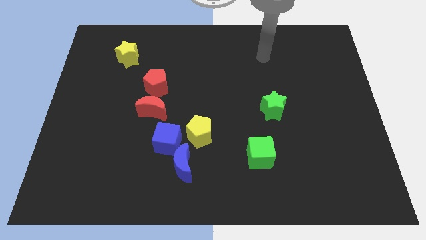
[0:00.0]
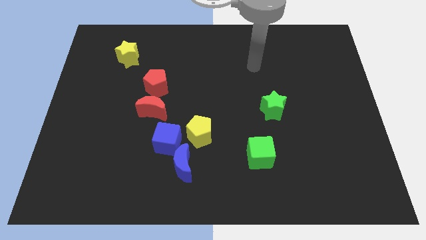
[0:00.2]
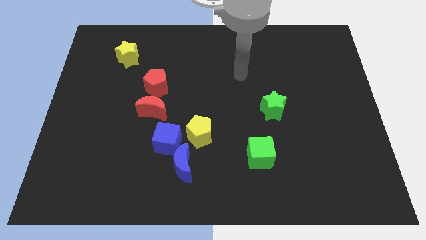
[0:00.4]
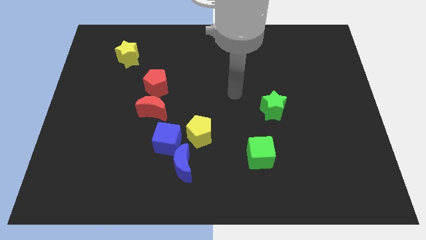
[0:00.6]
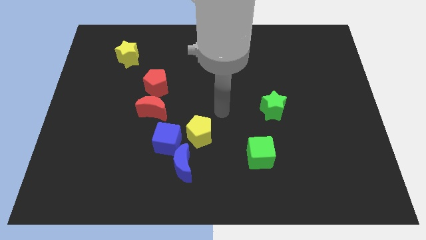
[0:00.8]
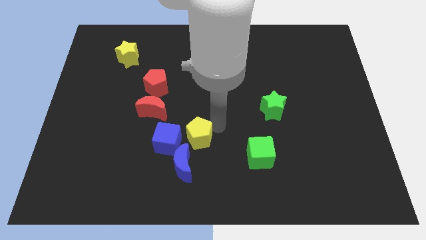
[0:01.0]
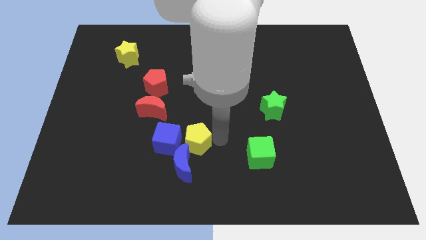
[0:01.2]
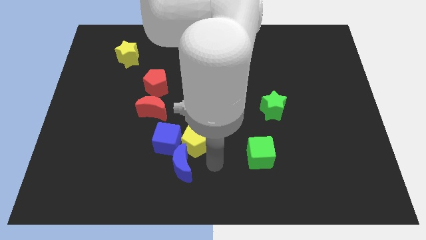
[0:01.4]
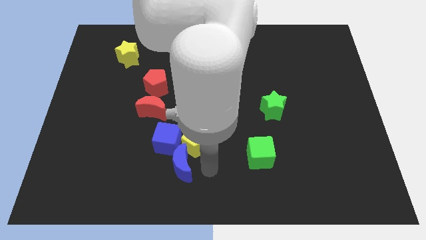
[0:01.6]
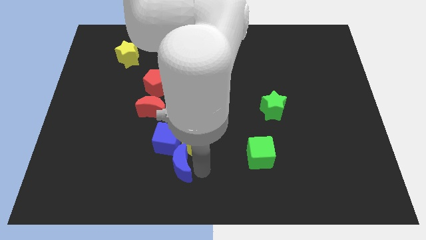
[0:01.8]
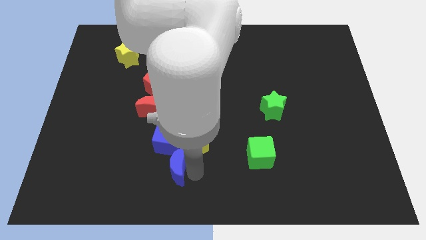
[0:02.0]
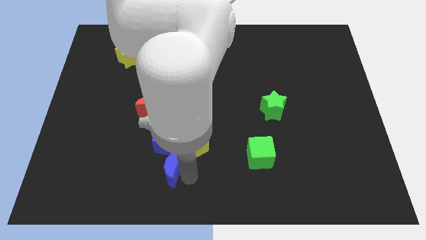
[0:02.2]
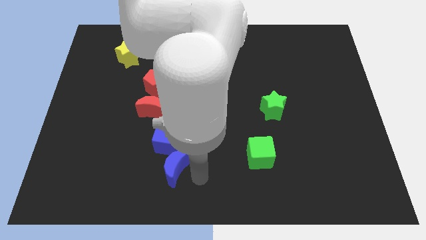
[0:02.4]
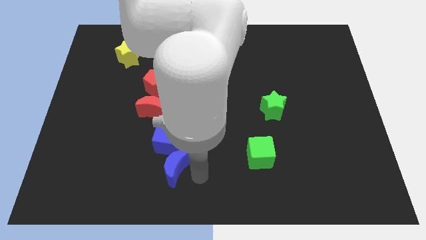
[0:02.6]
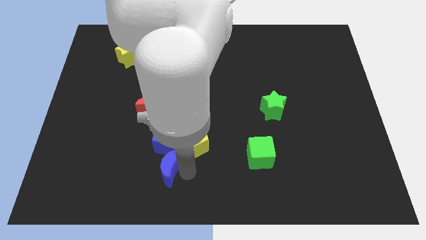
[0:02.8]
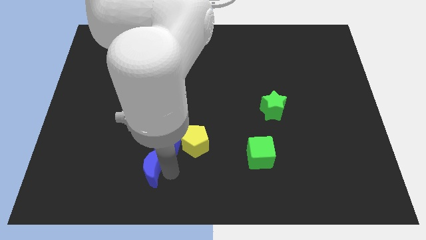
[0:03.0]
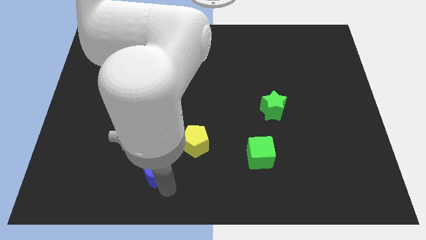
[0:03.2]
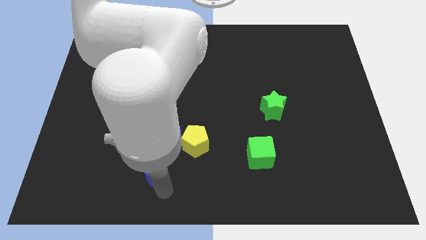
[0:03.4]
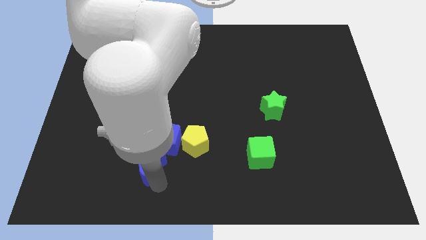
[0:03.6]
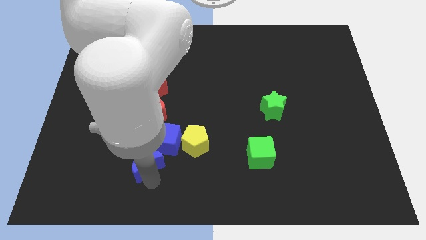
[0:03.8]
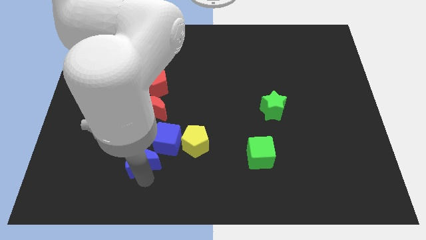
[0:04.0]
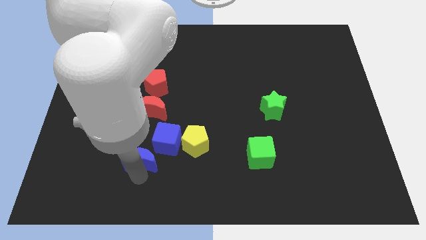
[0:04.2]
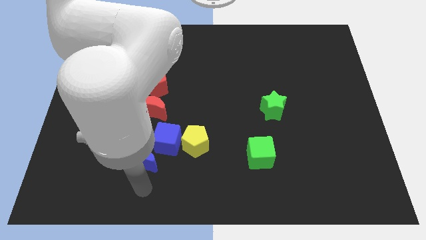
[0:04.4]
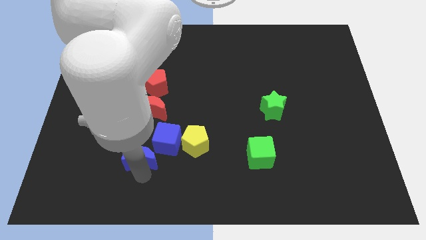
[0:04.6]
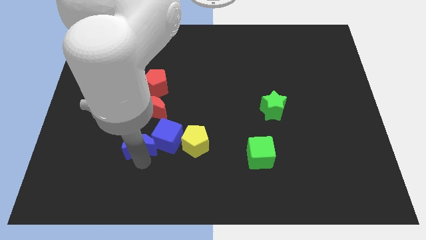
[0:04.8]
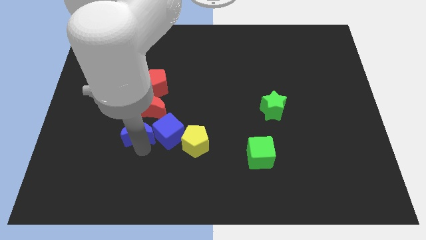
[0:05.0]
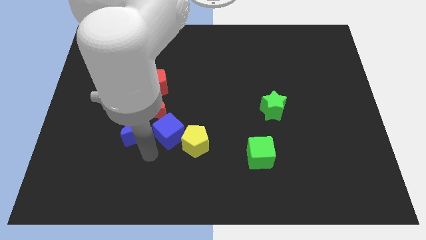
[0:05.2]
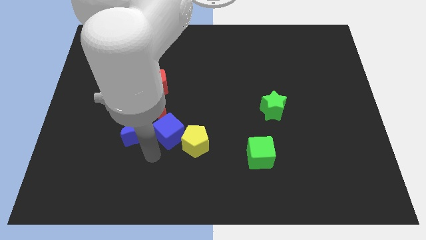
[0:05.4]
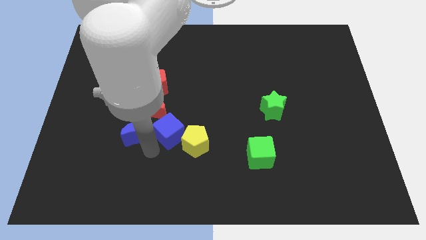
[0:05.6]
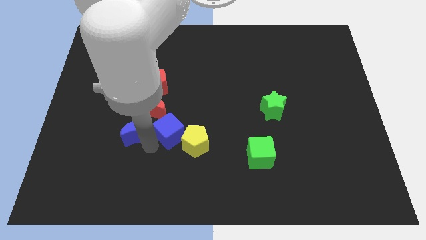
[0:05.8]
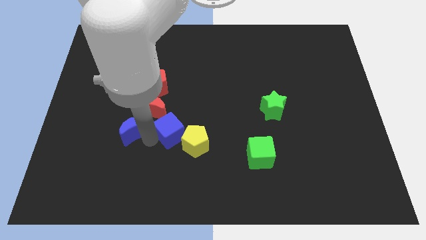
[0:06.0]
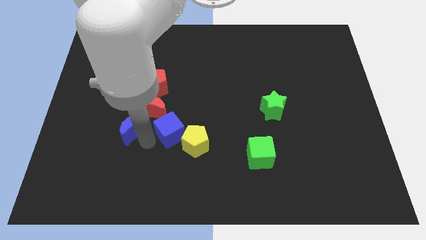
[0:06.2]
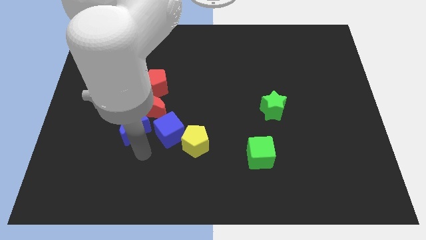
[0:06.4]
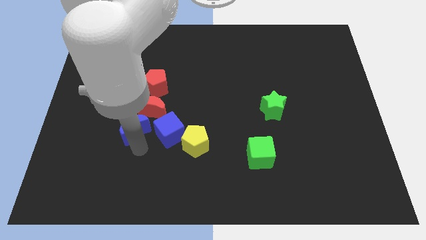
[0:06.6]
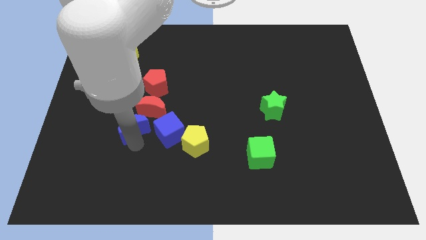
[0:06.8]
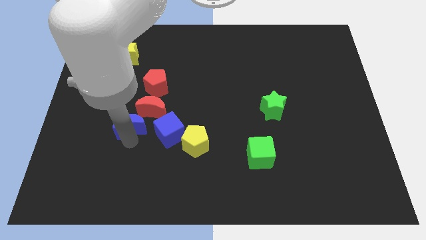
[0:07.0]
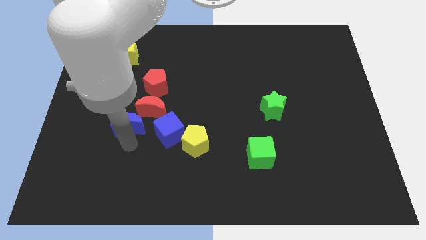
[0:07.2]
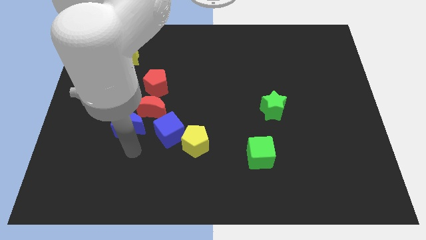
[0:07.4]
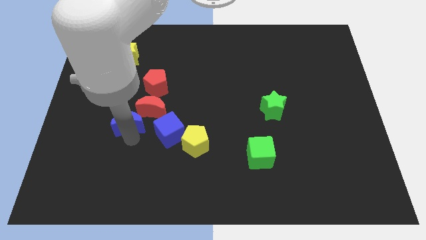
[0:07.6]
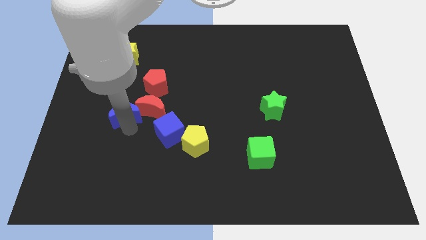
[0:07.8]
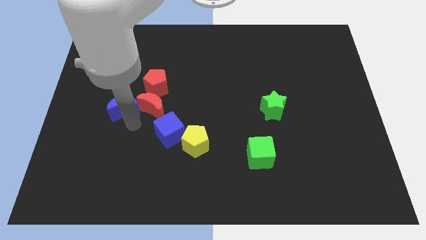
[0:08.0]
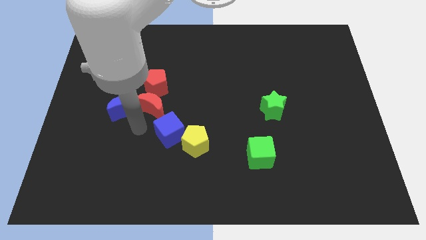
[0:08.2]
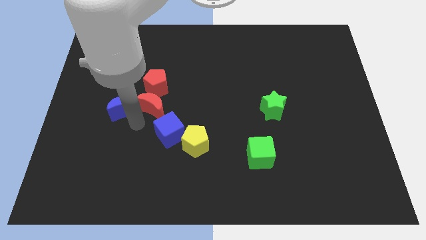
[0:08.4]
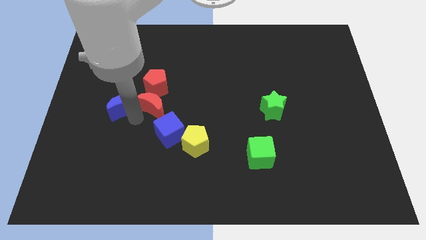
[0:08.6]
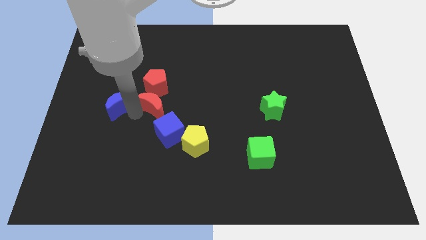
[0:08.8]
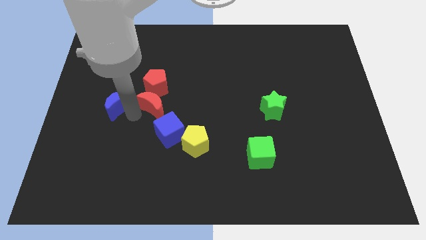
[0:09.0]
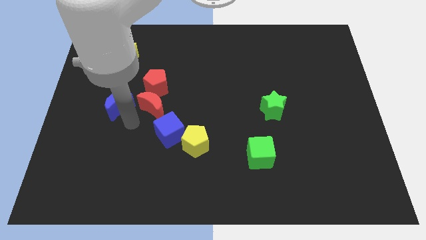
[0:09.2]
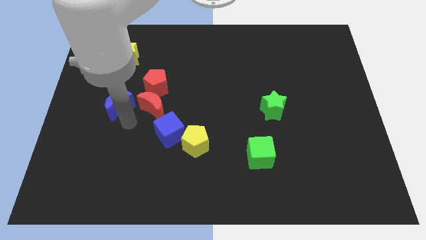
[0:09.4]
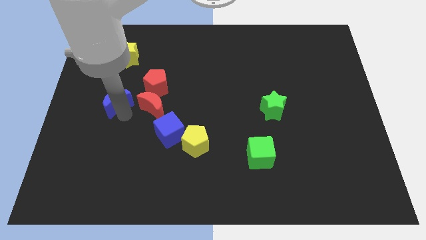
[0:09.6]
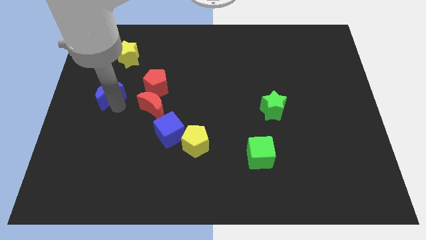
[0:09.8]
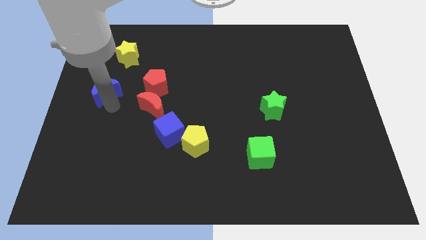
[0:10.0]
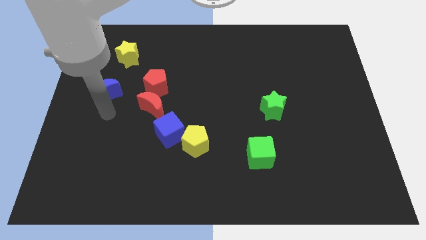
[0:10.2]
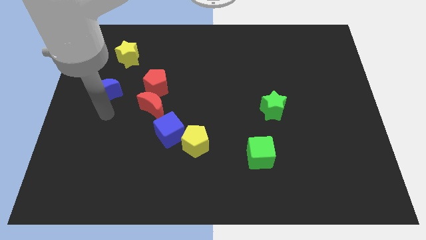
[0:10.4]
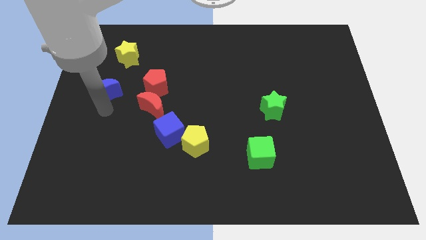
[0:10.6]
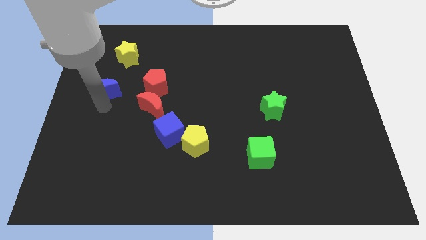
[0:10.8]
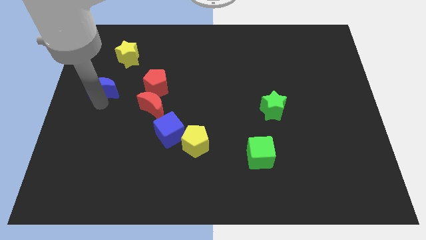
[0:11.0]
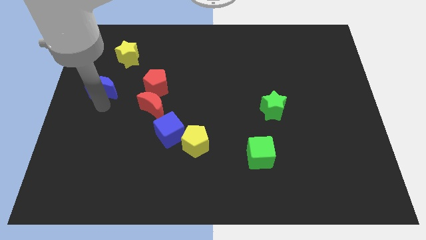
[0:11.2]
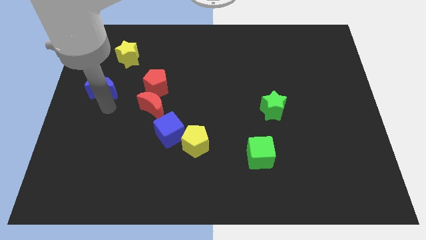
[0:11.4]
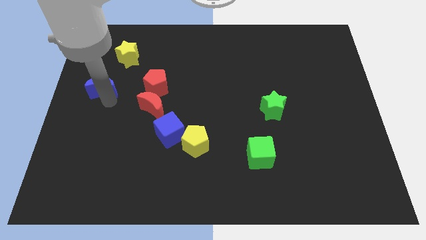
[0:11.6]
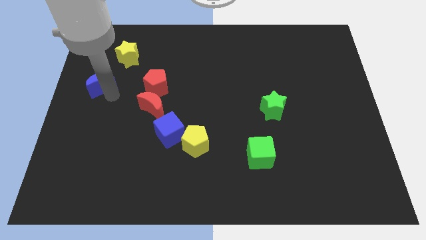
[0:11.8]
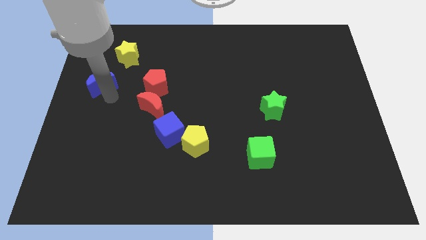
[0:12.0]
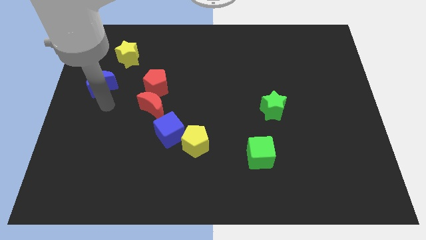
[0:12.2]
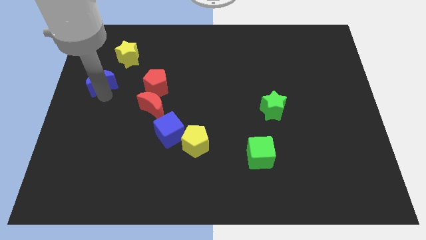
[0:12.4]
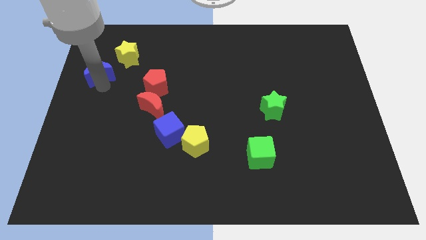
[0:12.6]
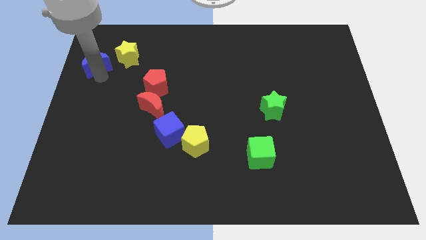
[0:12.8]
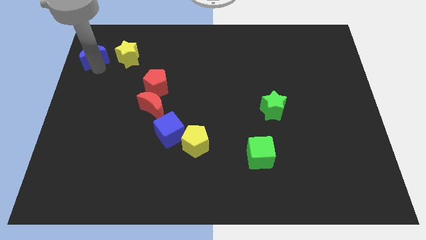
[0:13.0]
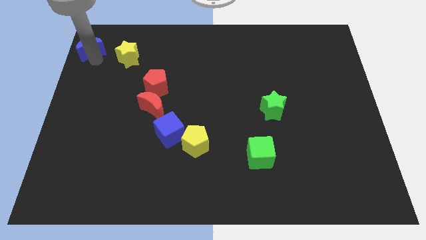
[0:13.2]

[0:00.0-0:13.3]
push the blue moon to the top left corner
